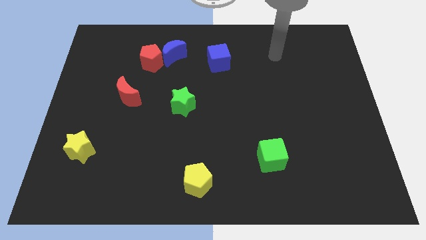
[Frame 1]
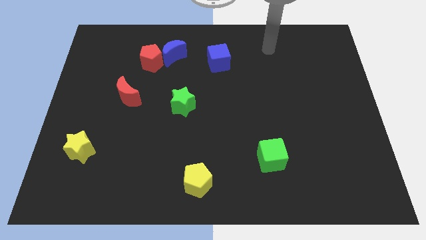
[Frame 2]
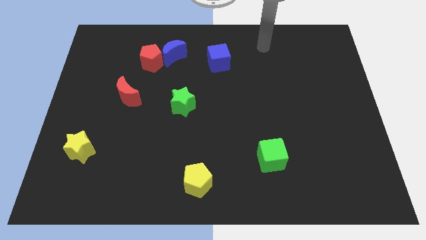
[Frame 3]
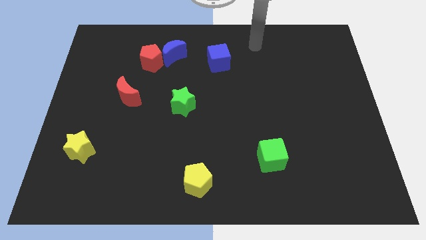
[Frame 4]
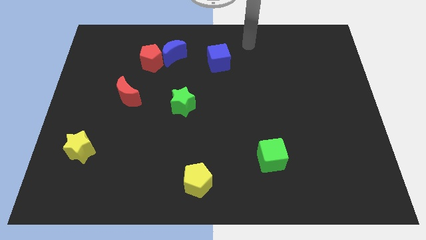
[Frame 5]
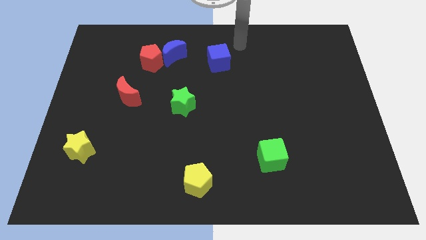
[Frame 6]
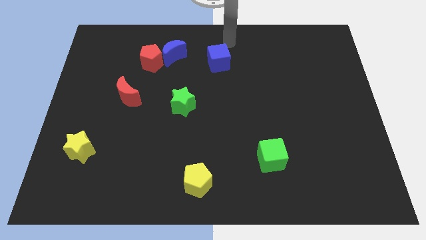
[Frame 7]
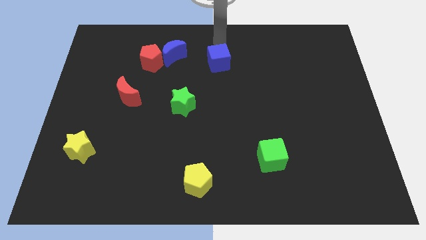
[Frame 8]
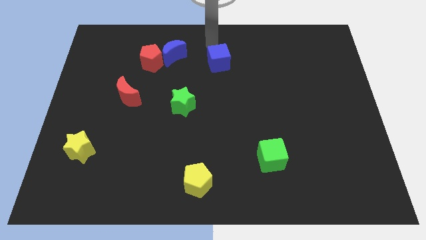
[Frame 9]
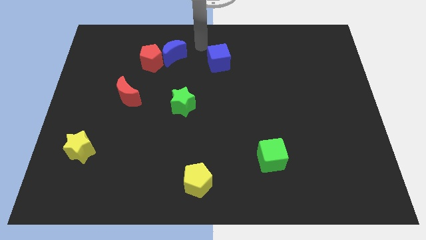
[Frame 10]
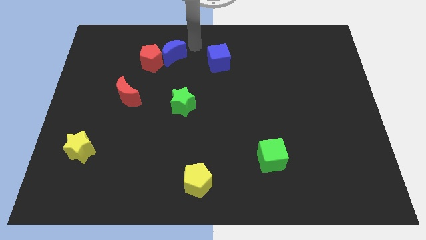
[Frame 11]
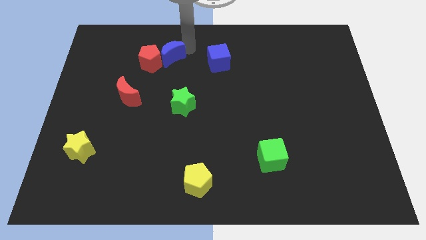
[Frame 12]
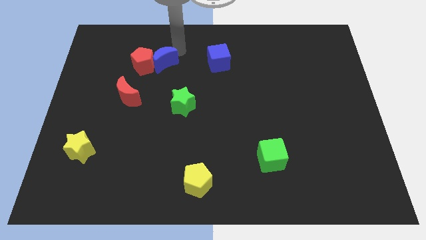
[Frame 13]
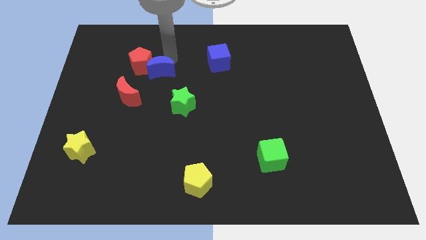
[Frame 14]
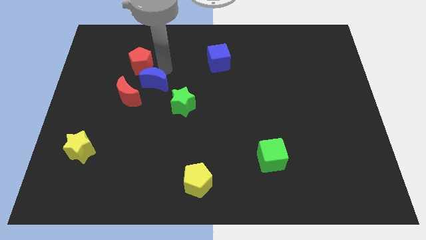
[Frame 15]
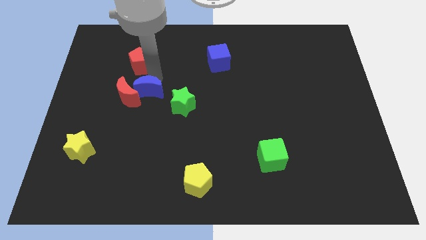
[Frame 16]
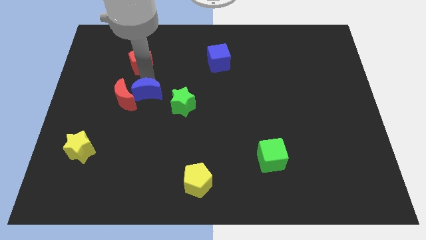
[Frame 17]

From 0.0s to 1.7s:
pull the red pentagon apart from the blue moon

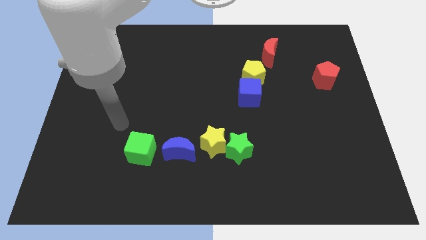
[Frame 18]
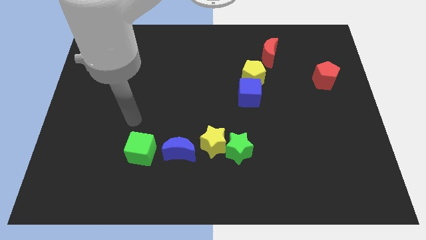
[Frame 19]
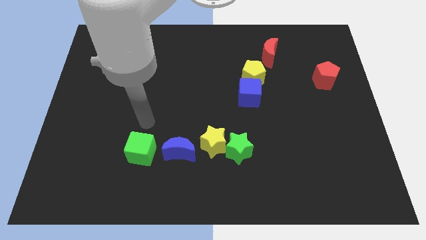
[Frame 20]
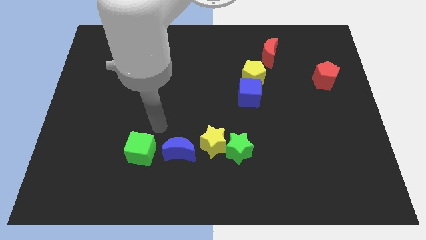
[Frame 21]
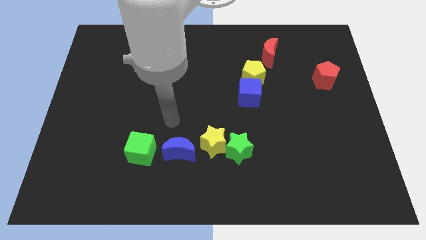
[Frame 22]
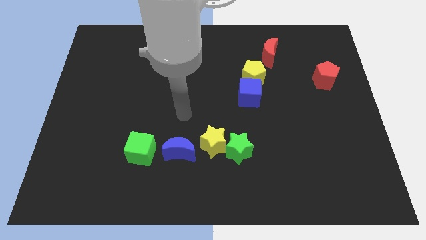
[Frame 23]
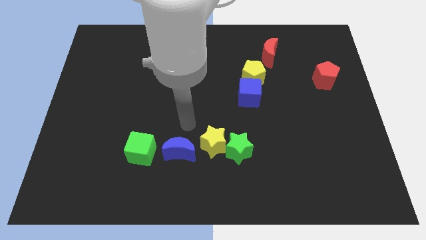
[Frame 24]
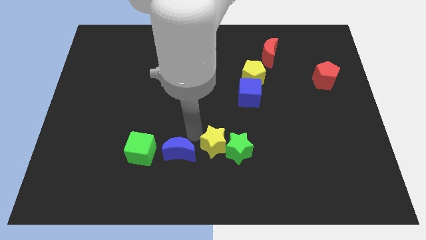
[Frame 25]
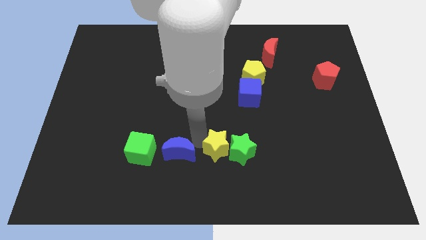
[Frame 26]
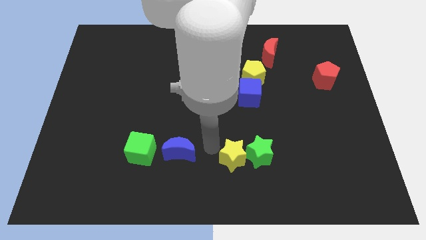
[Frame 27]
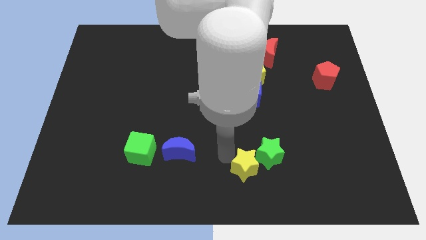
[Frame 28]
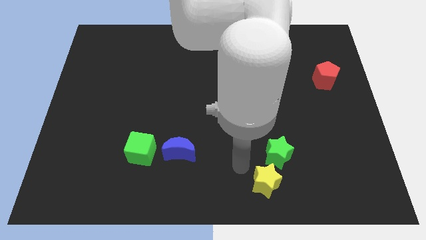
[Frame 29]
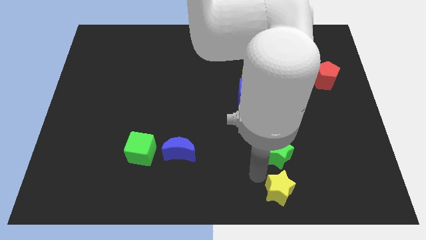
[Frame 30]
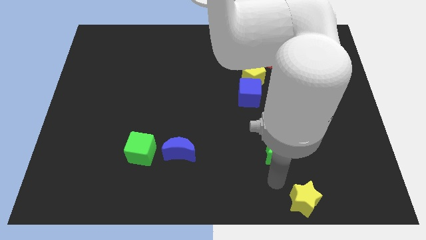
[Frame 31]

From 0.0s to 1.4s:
separate the green star from the yellow star

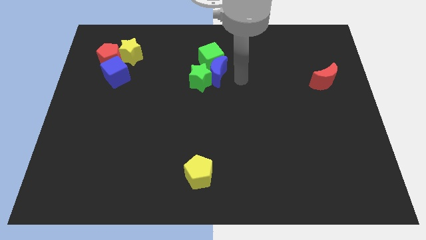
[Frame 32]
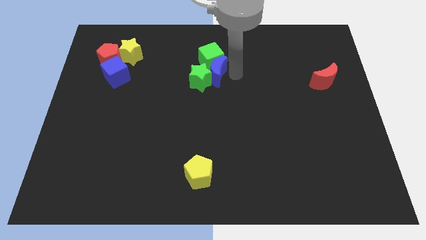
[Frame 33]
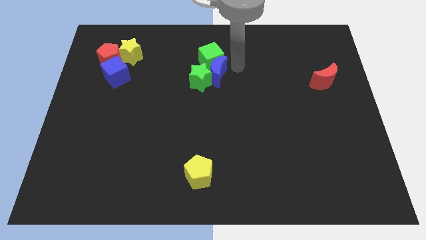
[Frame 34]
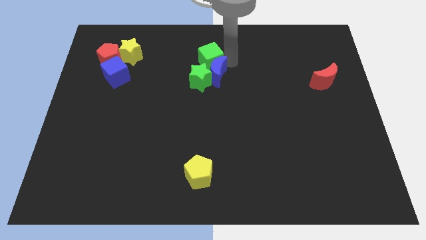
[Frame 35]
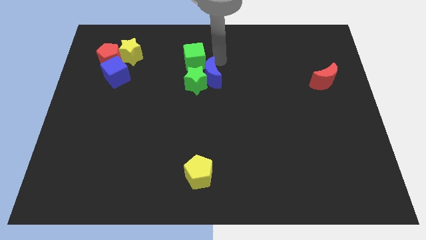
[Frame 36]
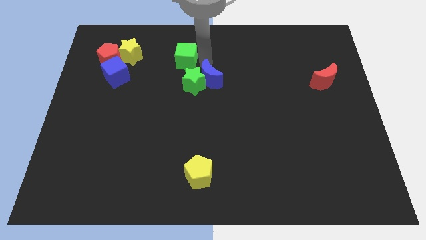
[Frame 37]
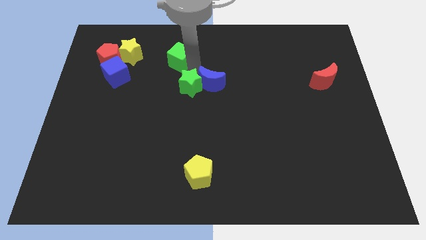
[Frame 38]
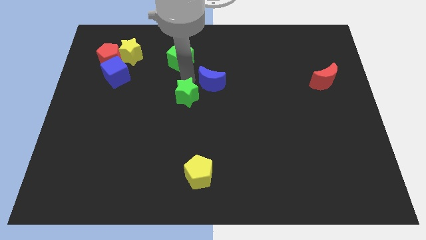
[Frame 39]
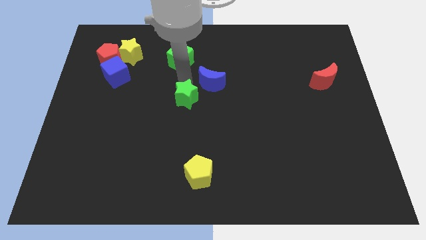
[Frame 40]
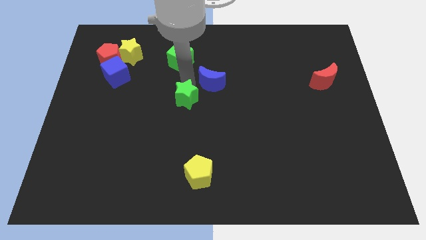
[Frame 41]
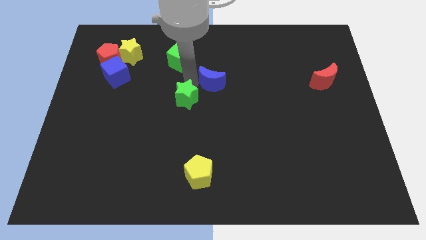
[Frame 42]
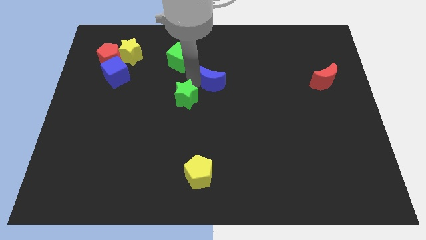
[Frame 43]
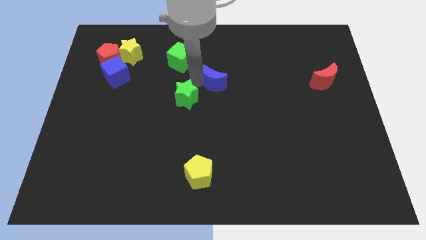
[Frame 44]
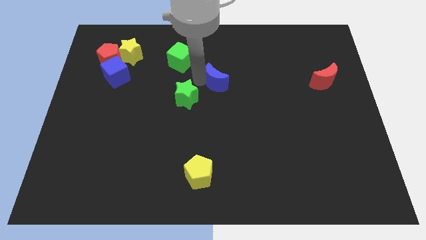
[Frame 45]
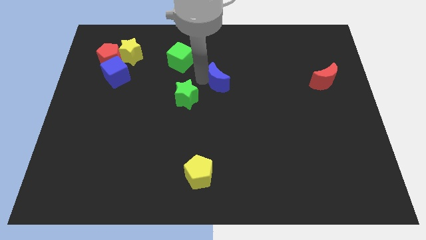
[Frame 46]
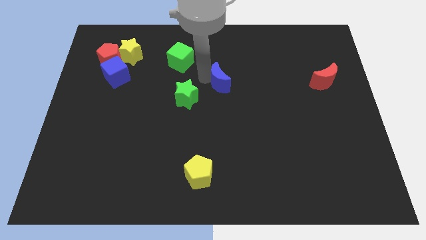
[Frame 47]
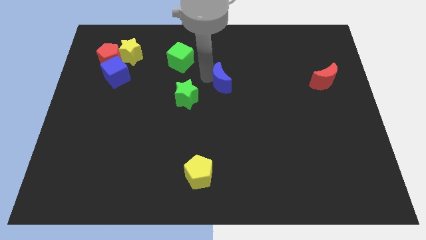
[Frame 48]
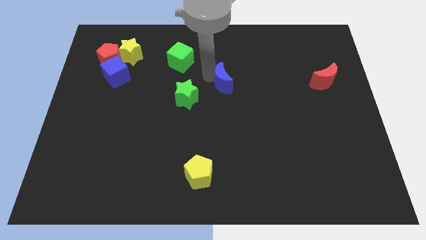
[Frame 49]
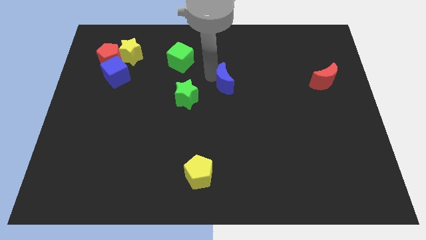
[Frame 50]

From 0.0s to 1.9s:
move the blue moon away from the green star and green cube

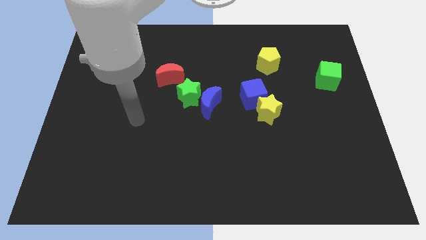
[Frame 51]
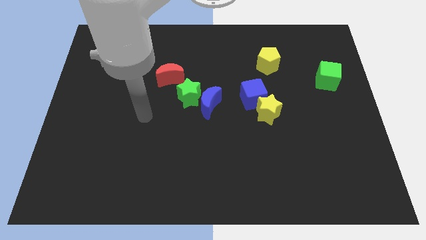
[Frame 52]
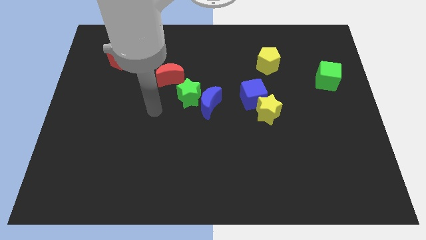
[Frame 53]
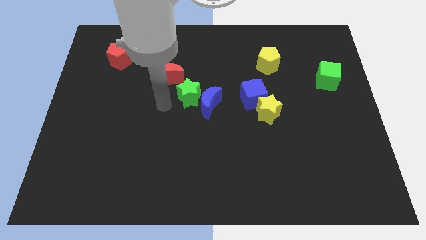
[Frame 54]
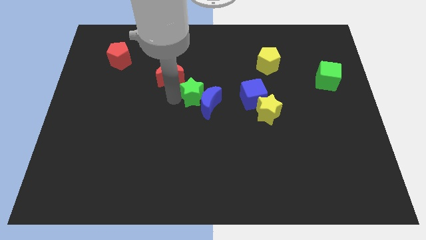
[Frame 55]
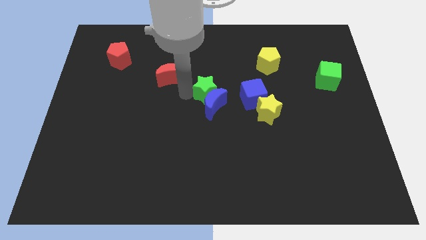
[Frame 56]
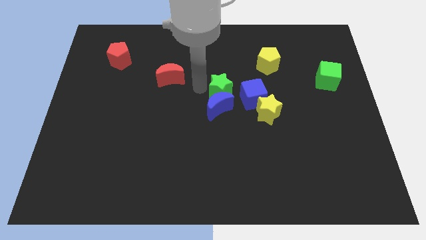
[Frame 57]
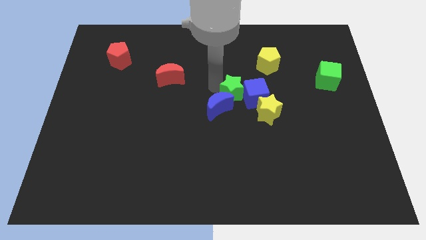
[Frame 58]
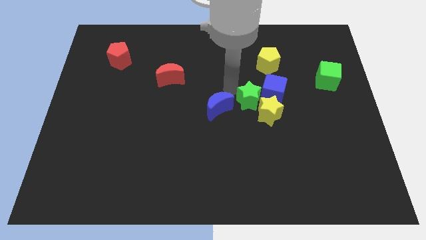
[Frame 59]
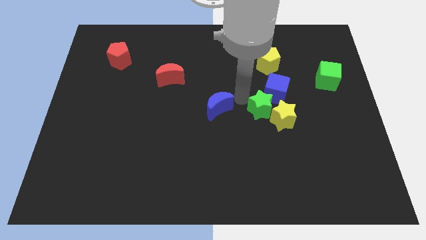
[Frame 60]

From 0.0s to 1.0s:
pull the blue moon apart from the green star

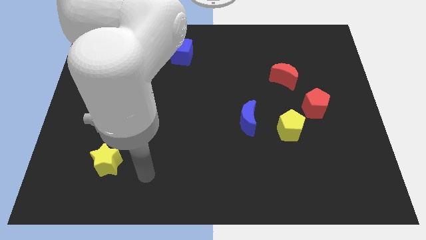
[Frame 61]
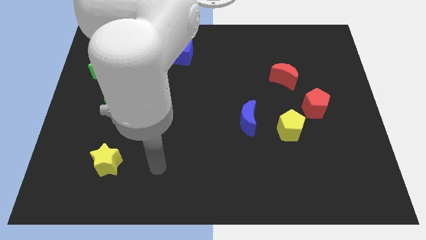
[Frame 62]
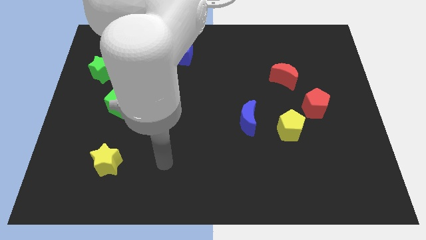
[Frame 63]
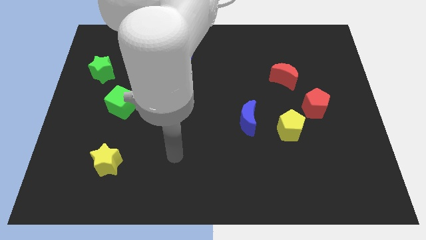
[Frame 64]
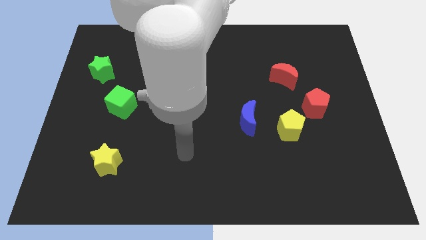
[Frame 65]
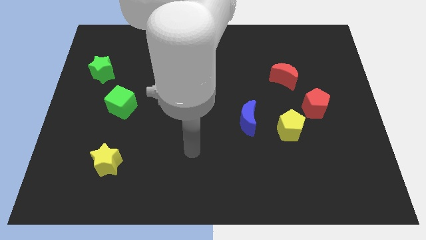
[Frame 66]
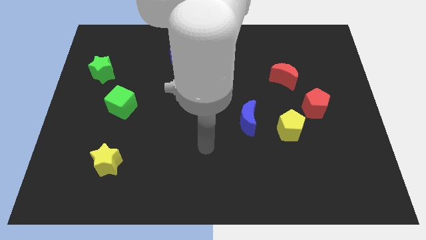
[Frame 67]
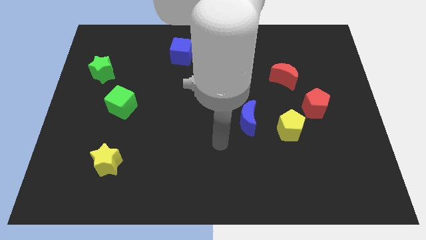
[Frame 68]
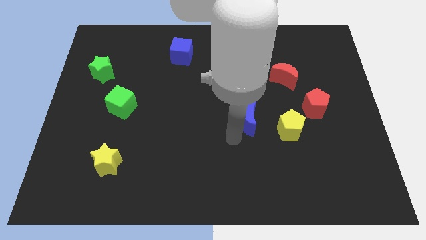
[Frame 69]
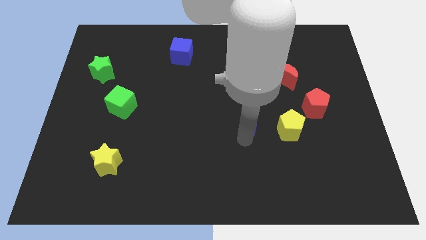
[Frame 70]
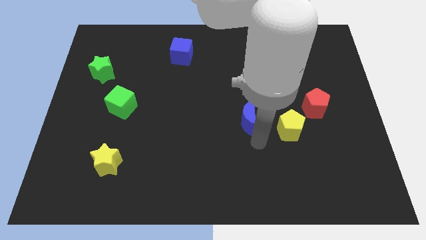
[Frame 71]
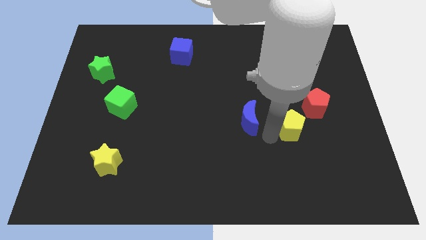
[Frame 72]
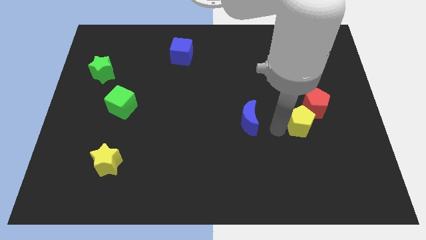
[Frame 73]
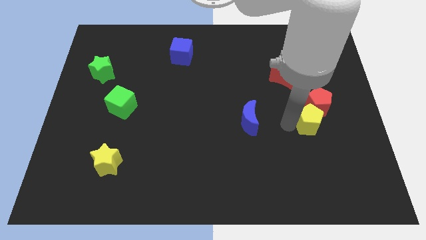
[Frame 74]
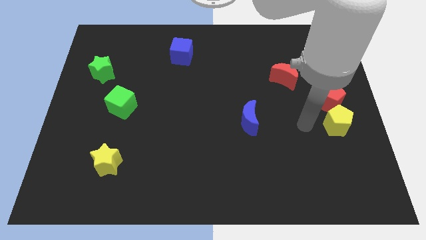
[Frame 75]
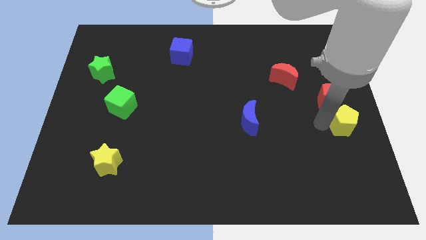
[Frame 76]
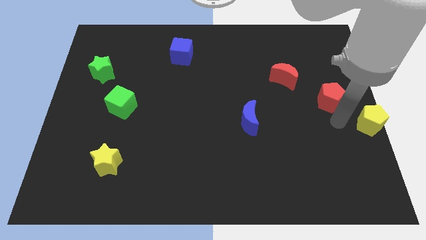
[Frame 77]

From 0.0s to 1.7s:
pull the red pentagon apart from the yellow pentagon

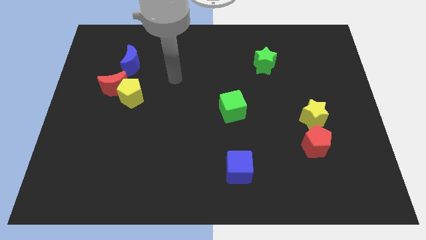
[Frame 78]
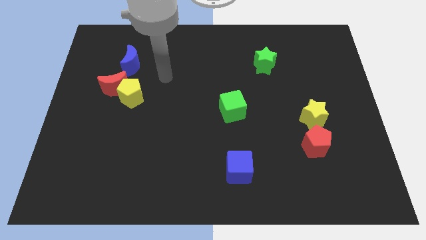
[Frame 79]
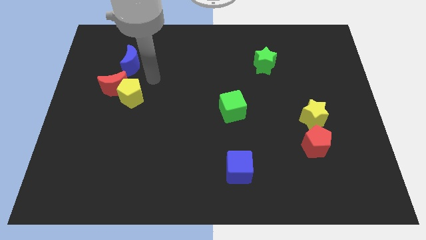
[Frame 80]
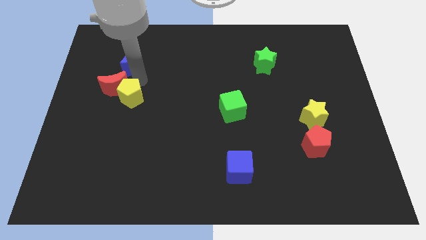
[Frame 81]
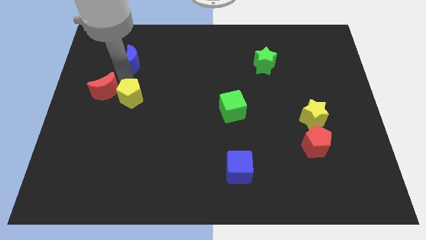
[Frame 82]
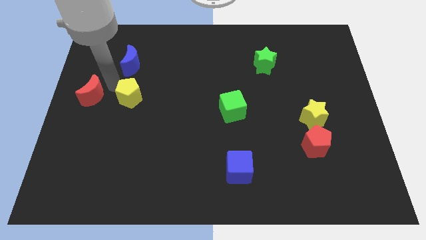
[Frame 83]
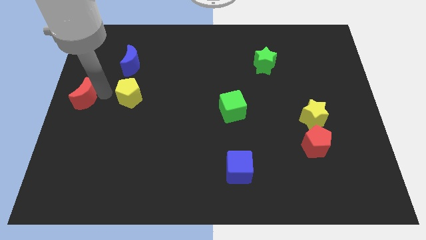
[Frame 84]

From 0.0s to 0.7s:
move the yellow pentagon away from the red moon

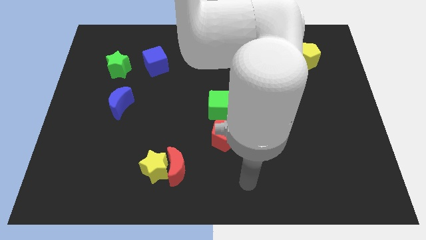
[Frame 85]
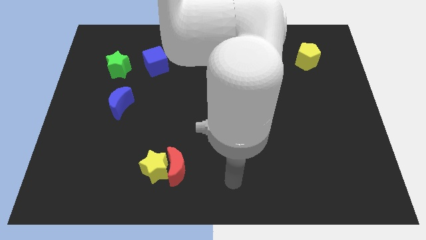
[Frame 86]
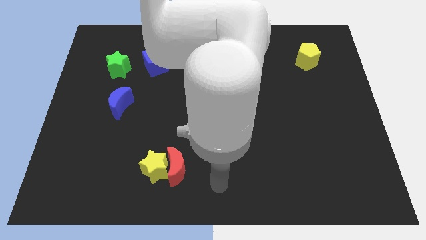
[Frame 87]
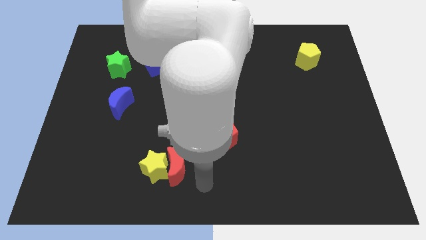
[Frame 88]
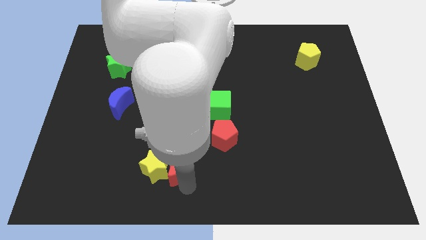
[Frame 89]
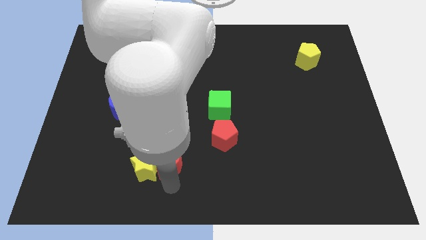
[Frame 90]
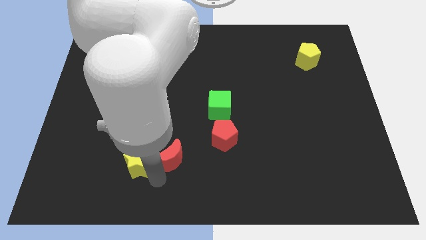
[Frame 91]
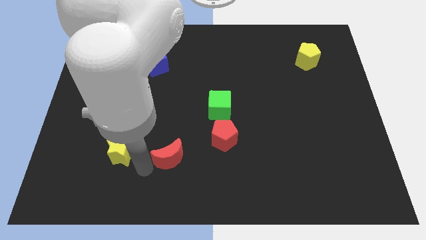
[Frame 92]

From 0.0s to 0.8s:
pull the red moon apart from the yellow star

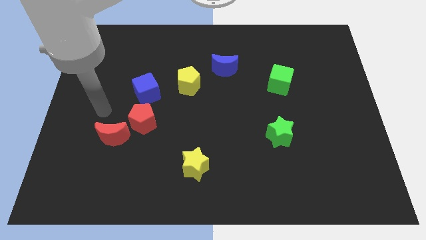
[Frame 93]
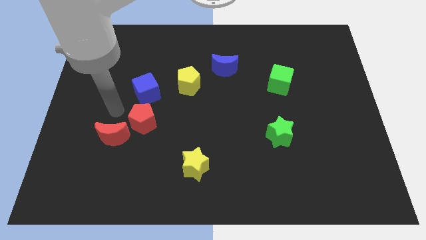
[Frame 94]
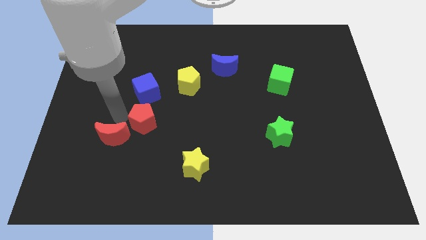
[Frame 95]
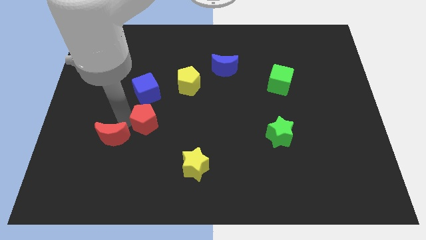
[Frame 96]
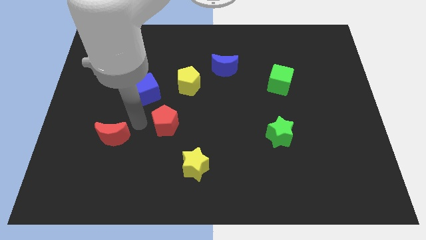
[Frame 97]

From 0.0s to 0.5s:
pull the red moon apart from the red pentagon
